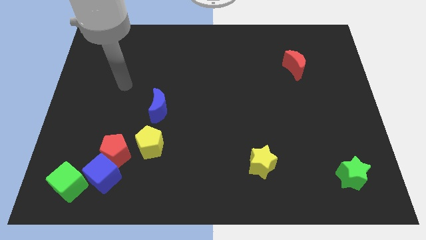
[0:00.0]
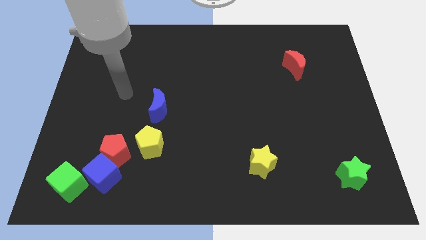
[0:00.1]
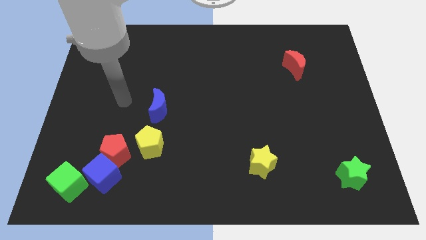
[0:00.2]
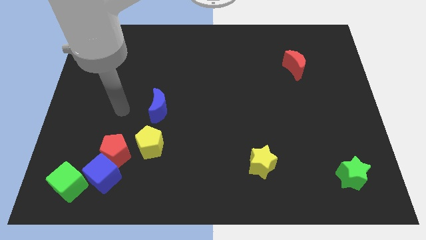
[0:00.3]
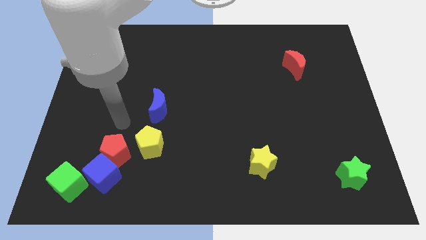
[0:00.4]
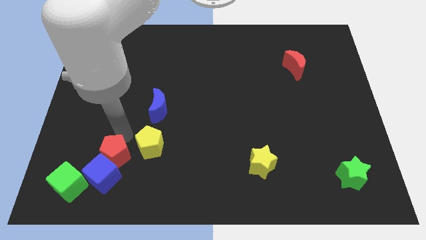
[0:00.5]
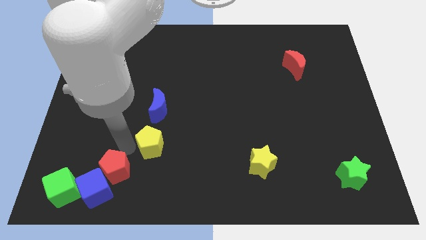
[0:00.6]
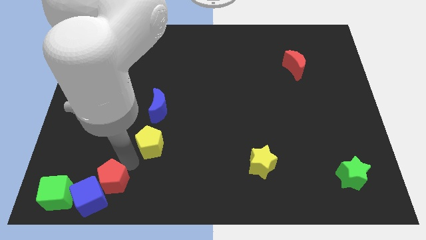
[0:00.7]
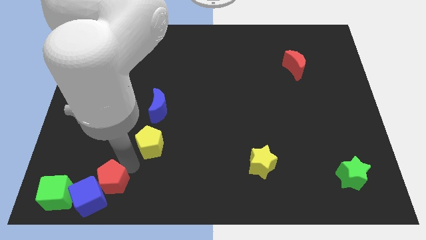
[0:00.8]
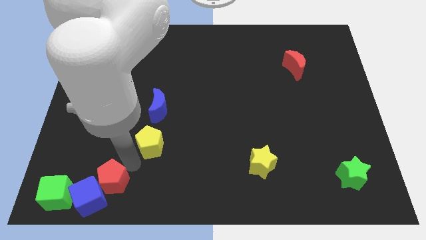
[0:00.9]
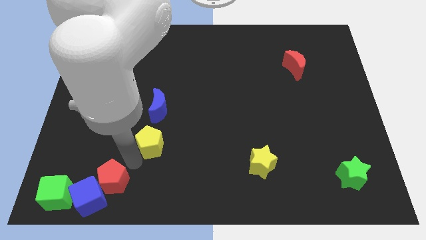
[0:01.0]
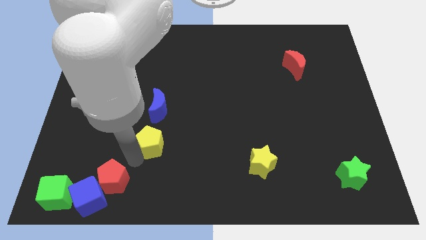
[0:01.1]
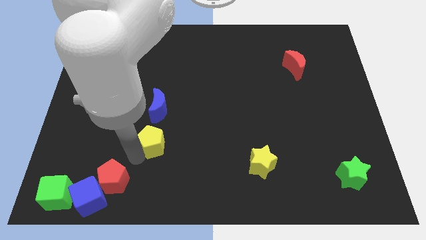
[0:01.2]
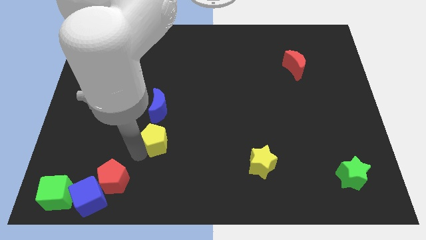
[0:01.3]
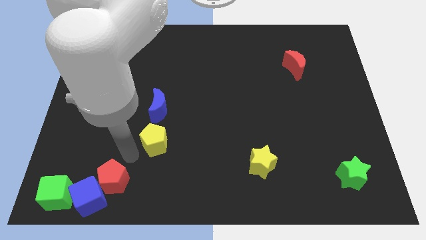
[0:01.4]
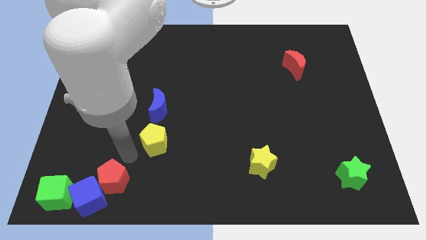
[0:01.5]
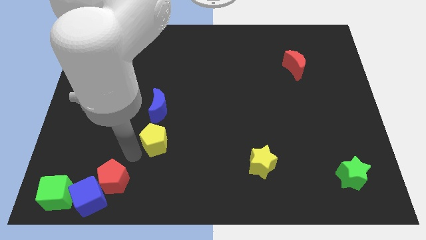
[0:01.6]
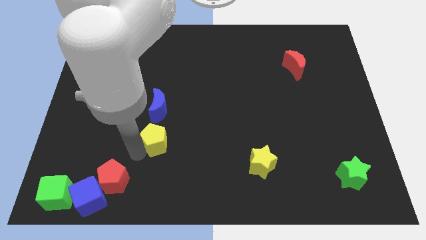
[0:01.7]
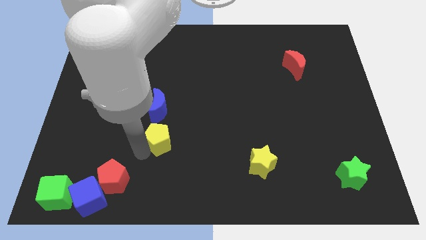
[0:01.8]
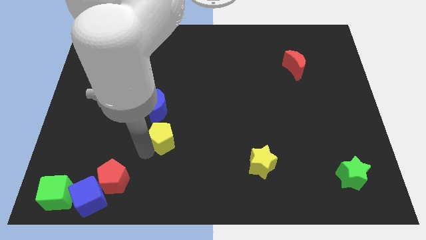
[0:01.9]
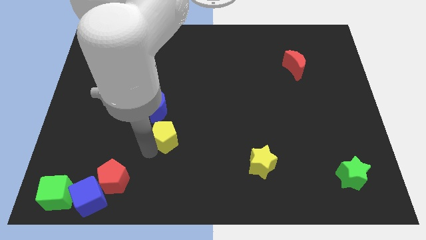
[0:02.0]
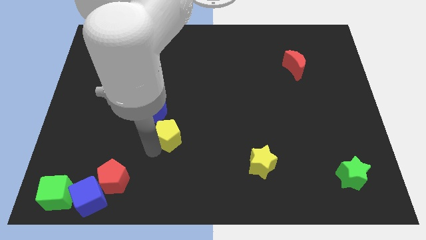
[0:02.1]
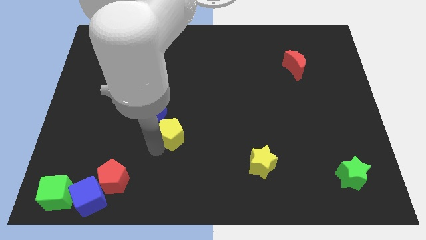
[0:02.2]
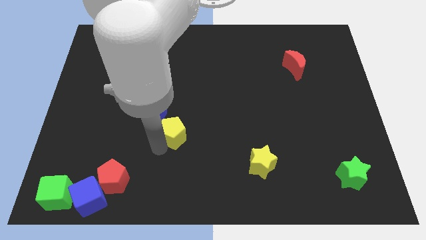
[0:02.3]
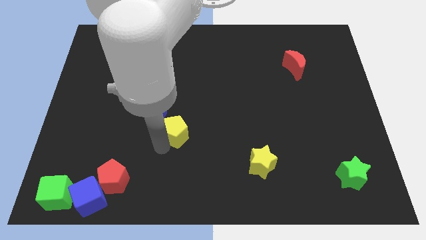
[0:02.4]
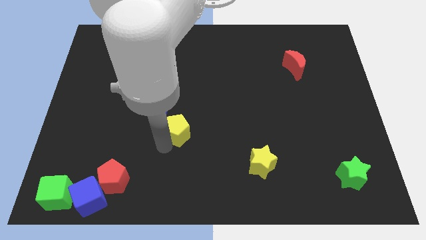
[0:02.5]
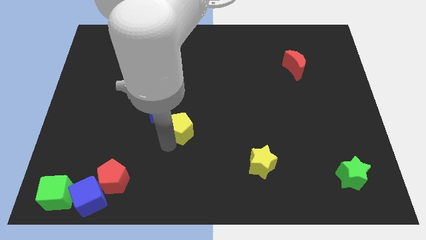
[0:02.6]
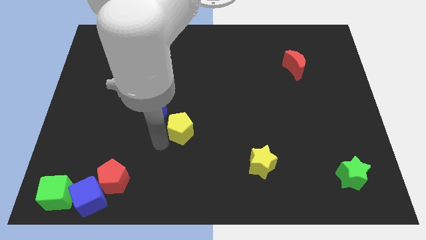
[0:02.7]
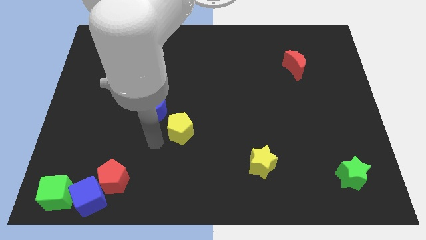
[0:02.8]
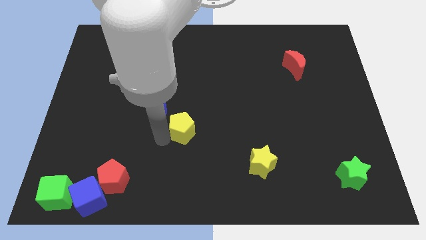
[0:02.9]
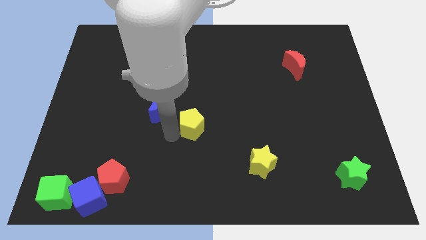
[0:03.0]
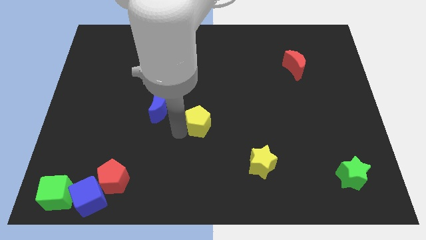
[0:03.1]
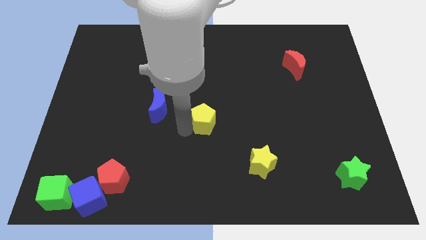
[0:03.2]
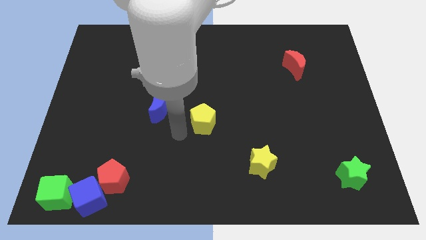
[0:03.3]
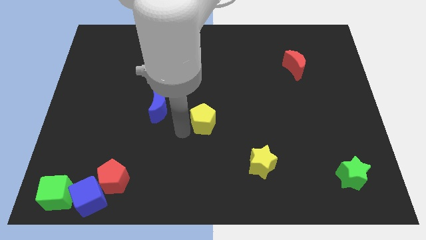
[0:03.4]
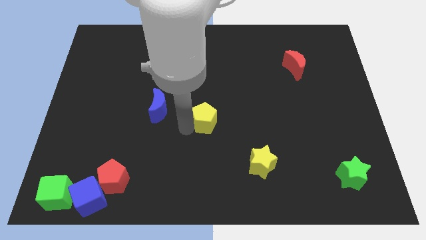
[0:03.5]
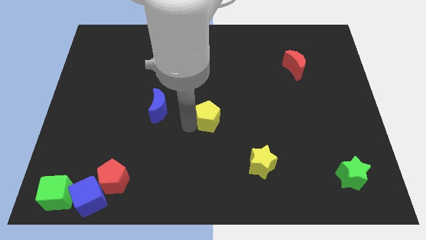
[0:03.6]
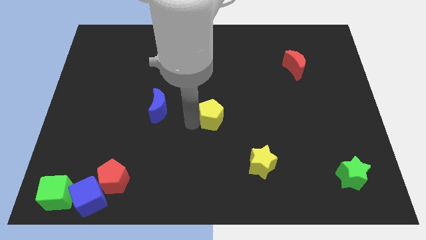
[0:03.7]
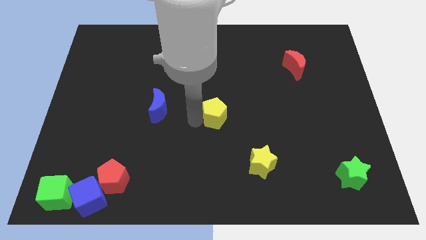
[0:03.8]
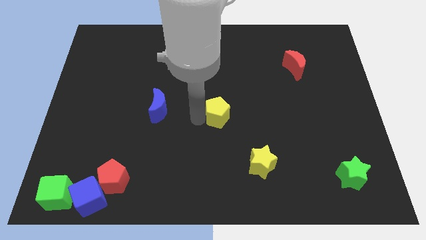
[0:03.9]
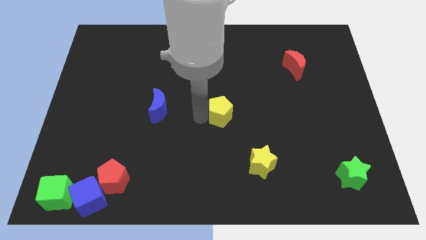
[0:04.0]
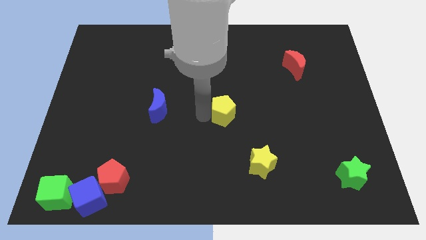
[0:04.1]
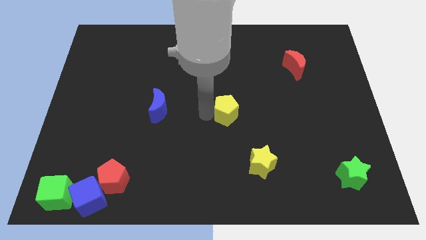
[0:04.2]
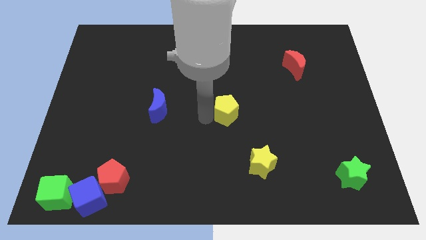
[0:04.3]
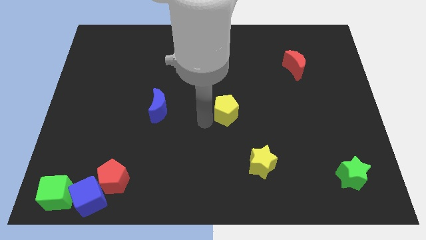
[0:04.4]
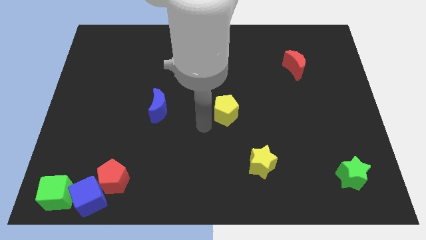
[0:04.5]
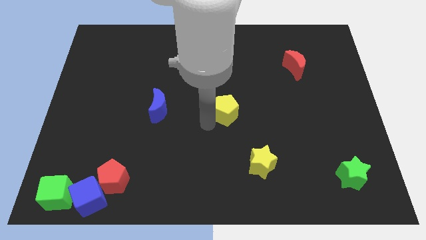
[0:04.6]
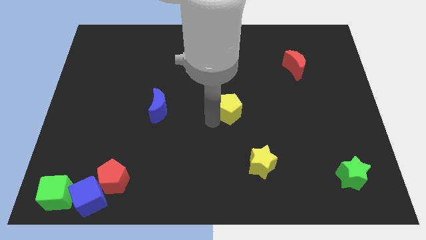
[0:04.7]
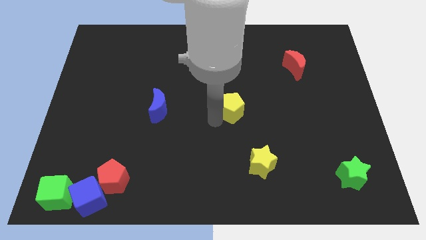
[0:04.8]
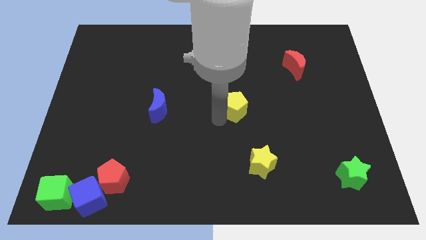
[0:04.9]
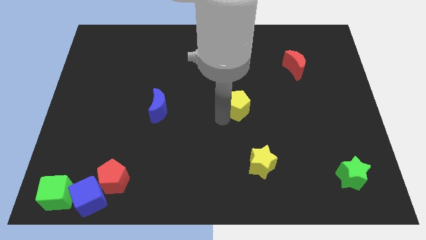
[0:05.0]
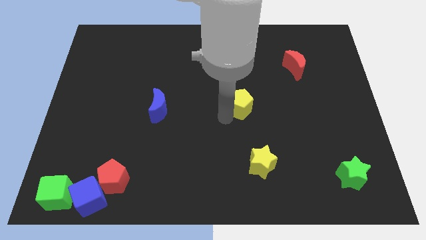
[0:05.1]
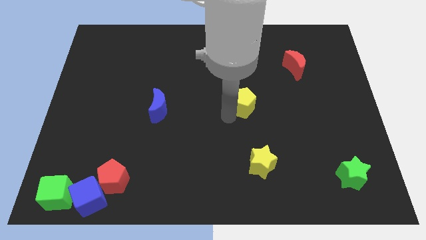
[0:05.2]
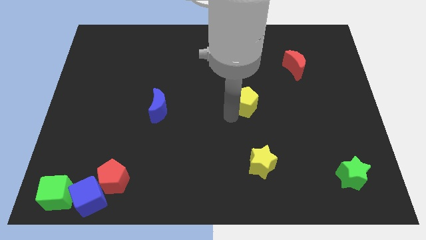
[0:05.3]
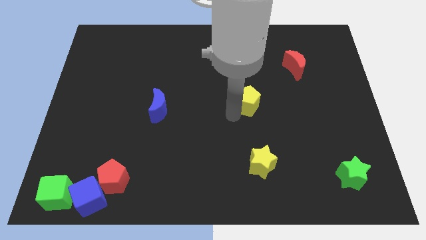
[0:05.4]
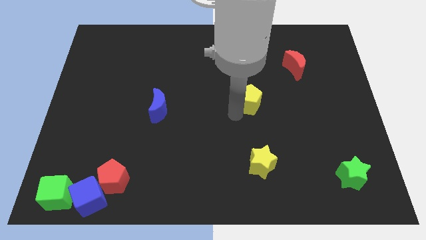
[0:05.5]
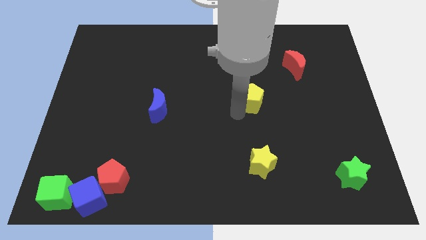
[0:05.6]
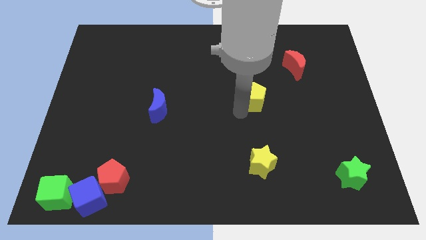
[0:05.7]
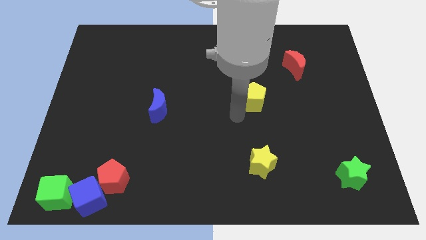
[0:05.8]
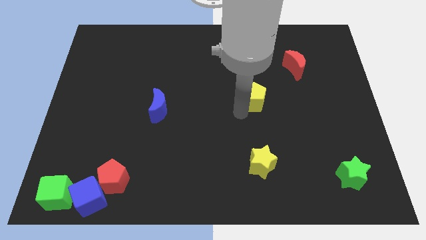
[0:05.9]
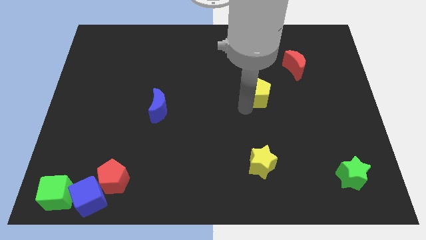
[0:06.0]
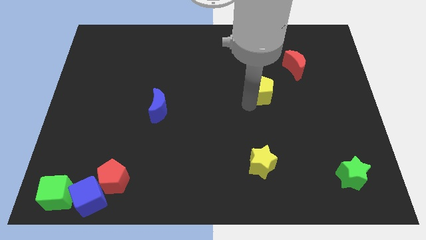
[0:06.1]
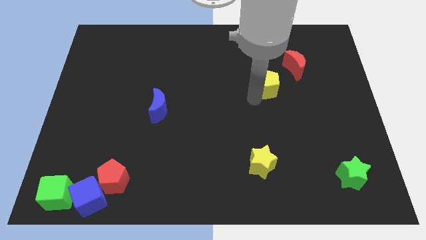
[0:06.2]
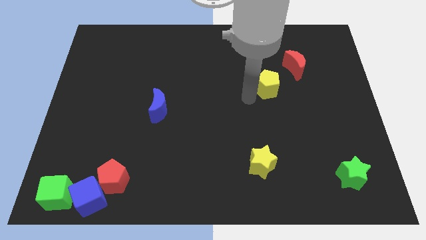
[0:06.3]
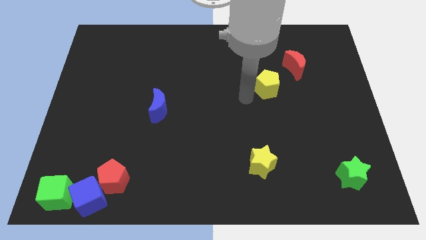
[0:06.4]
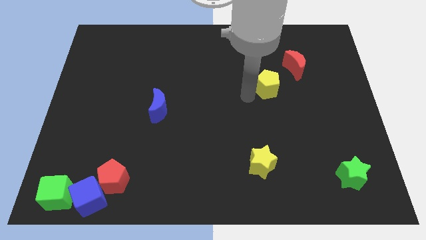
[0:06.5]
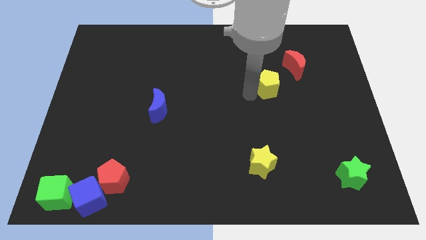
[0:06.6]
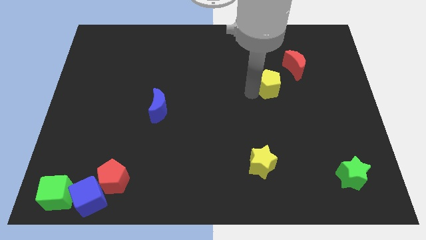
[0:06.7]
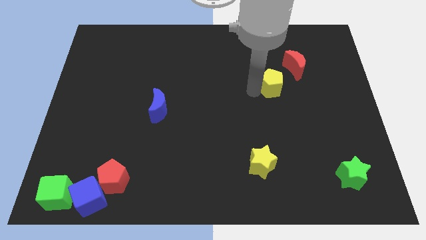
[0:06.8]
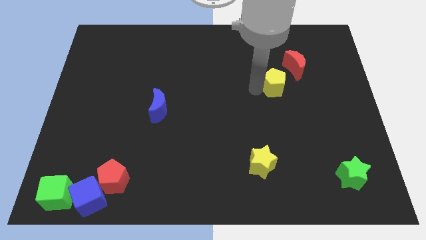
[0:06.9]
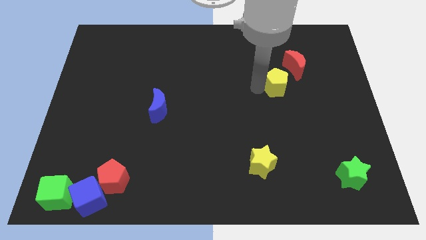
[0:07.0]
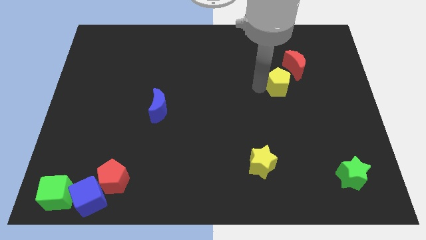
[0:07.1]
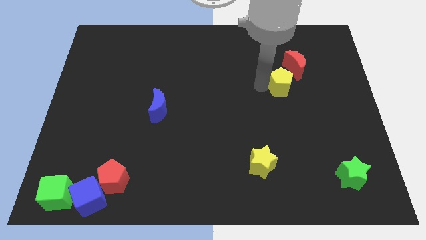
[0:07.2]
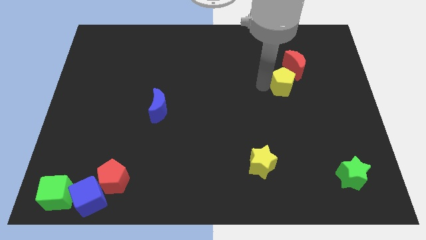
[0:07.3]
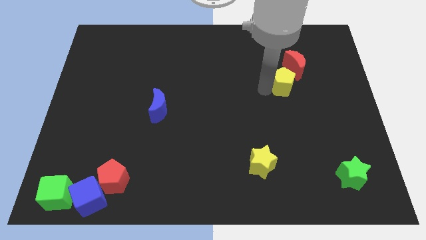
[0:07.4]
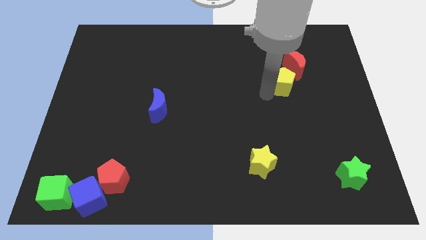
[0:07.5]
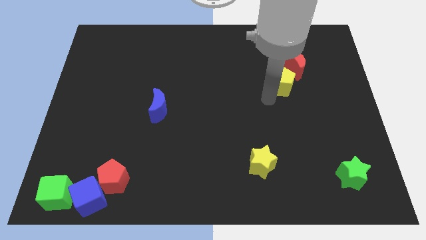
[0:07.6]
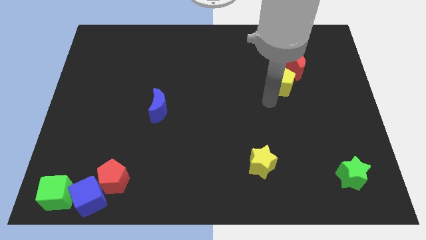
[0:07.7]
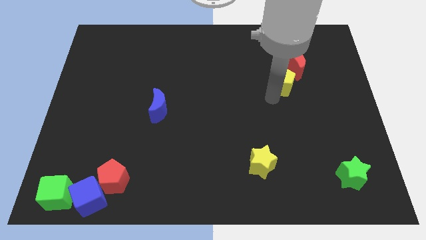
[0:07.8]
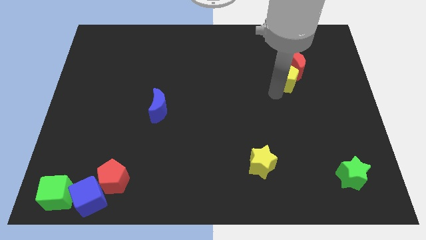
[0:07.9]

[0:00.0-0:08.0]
put the yellow pentagon to the red moon
